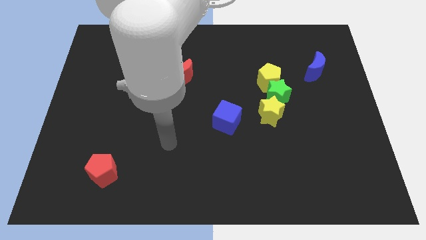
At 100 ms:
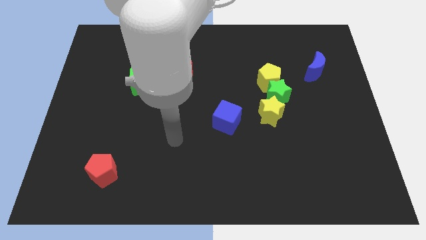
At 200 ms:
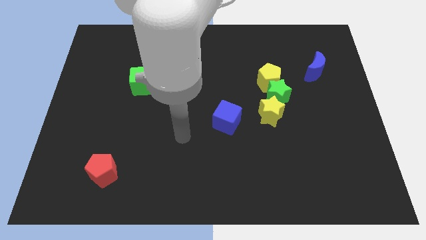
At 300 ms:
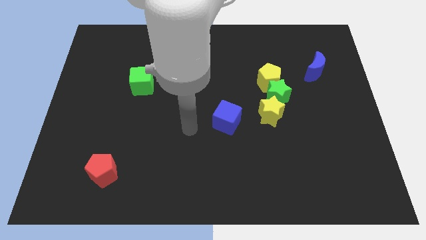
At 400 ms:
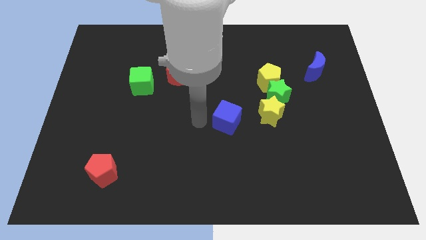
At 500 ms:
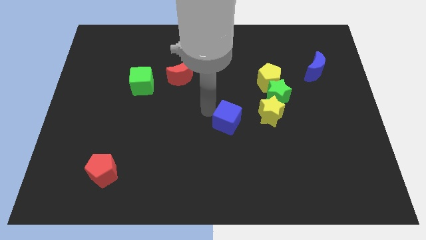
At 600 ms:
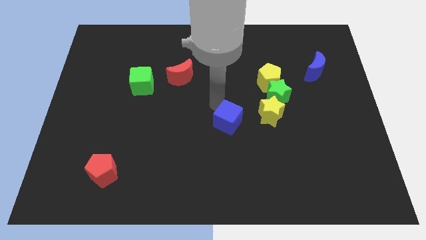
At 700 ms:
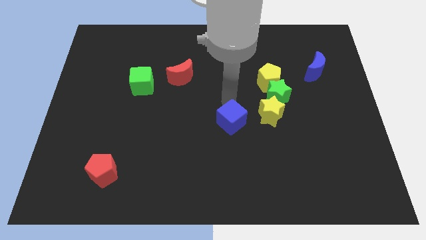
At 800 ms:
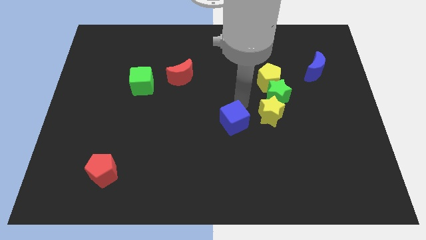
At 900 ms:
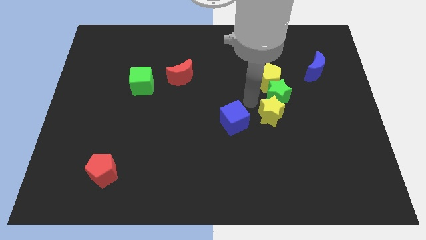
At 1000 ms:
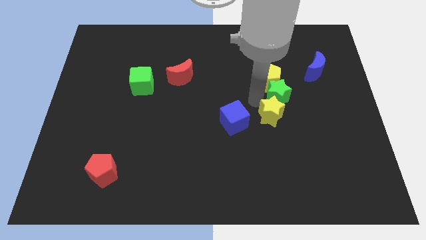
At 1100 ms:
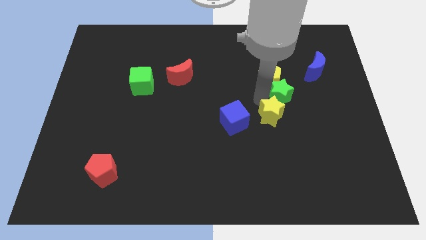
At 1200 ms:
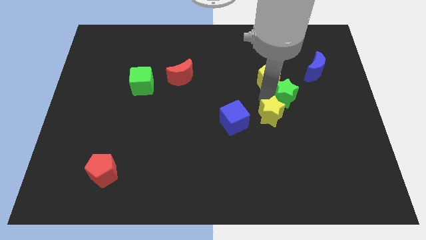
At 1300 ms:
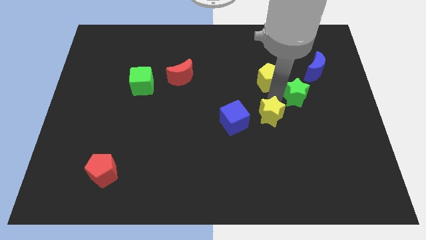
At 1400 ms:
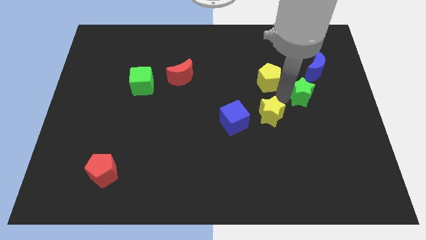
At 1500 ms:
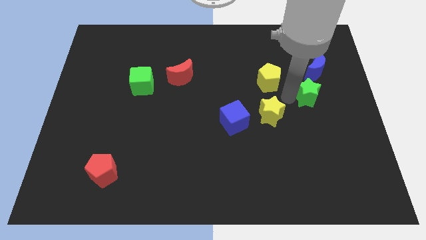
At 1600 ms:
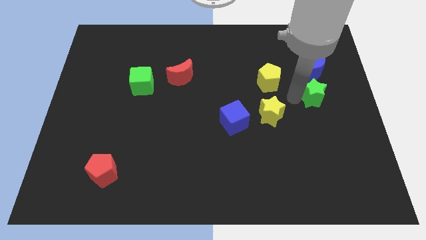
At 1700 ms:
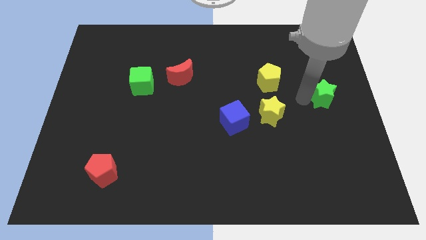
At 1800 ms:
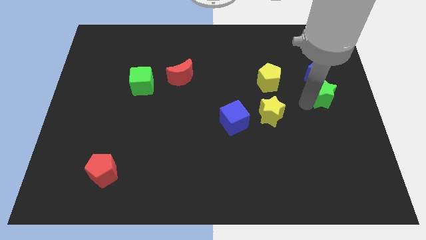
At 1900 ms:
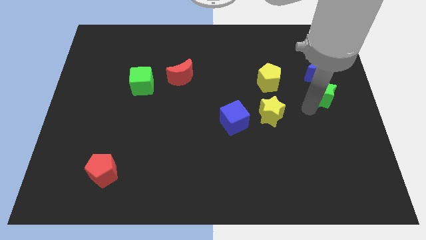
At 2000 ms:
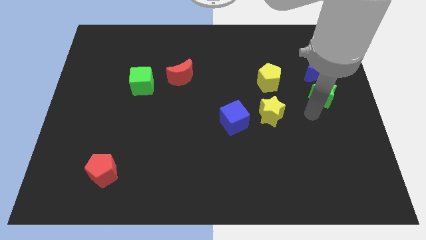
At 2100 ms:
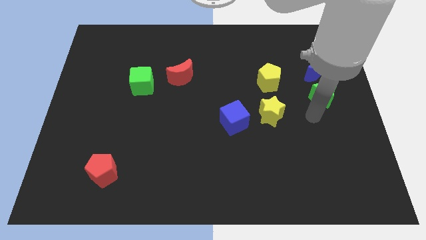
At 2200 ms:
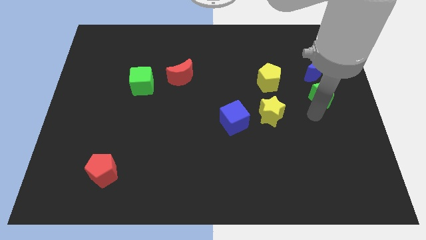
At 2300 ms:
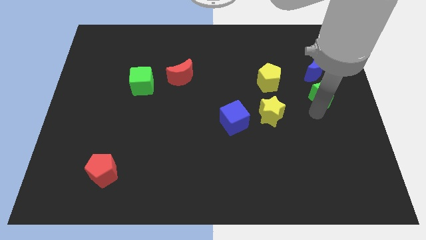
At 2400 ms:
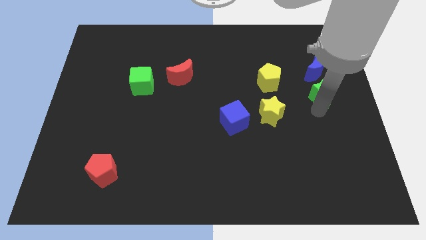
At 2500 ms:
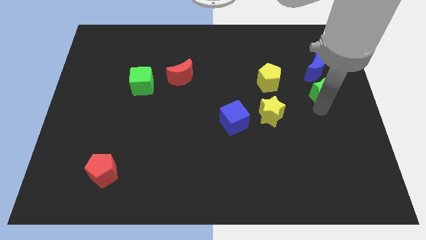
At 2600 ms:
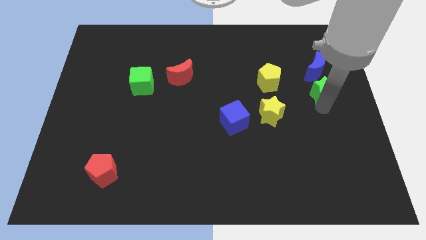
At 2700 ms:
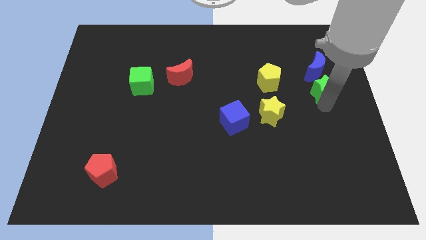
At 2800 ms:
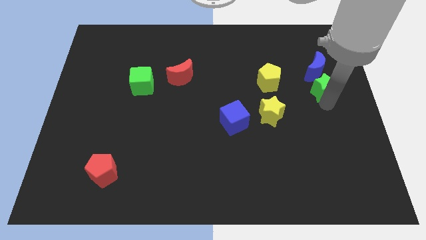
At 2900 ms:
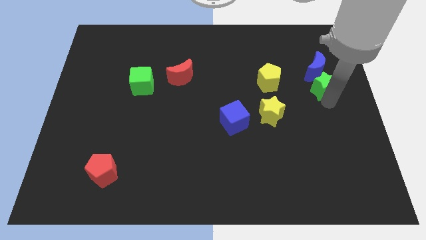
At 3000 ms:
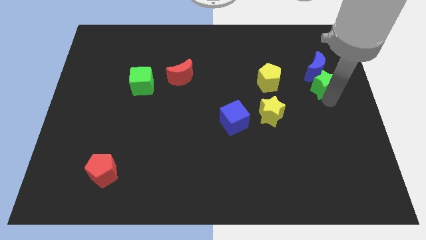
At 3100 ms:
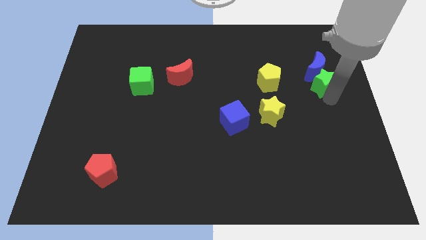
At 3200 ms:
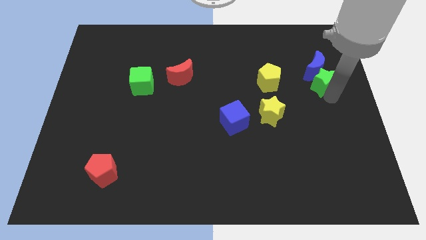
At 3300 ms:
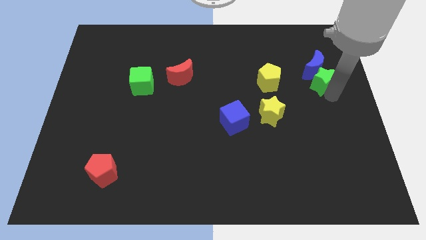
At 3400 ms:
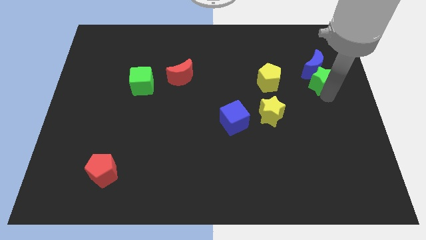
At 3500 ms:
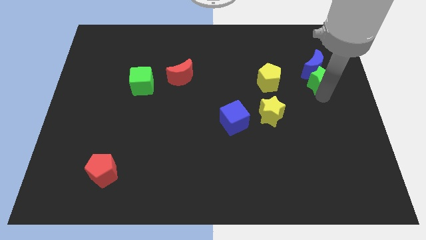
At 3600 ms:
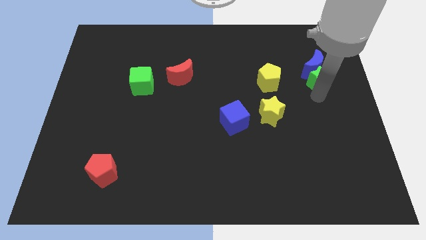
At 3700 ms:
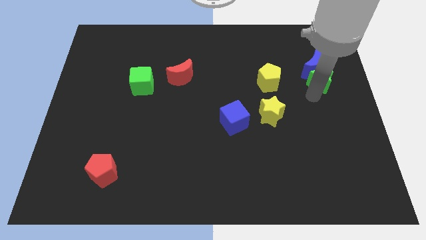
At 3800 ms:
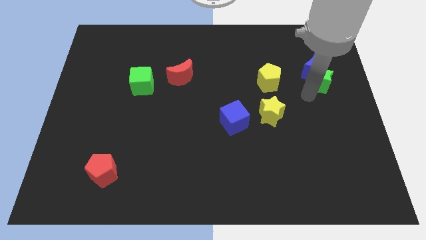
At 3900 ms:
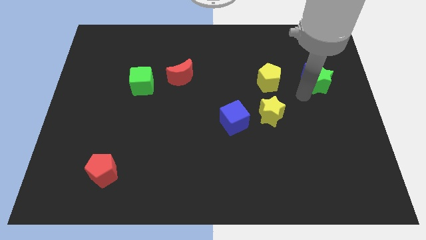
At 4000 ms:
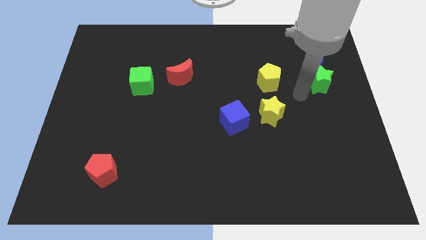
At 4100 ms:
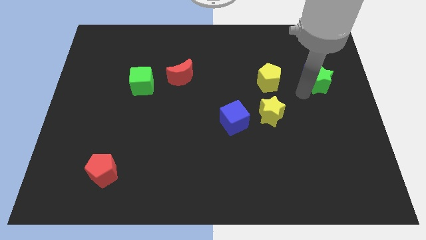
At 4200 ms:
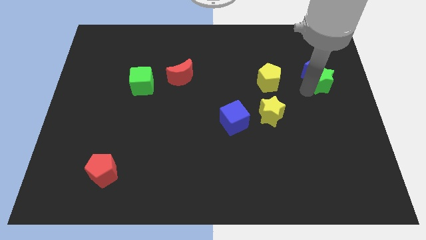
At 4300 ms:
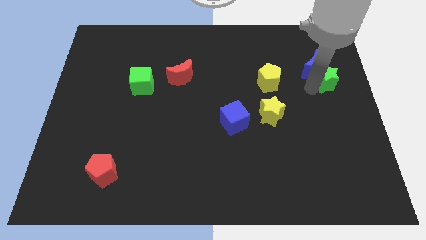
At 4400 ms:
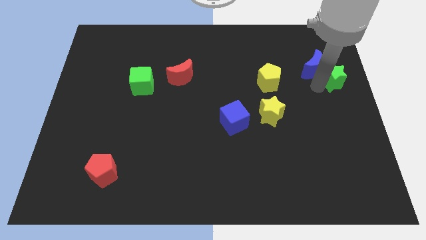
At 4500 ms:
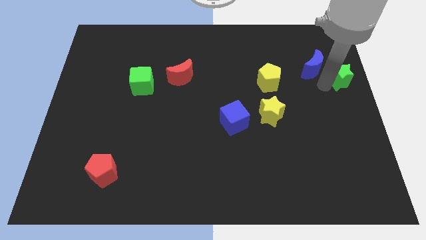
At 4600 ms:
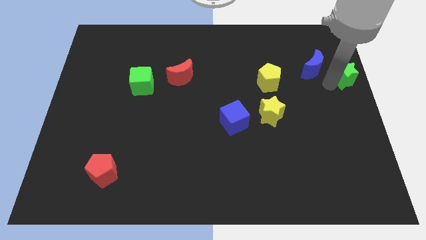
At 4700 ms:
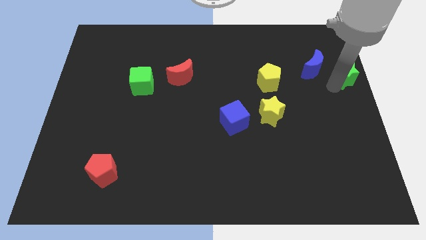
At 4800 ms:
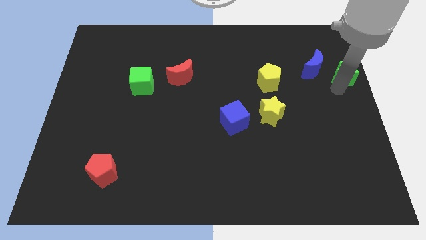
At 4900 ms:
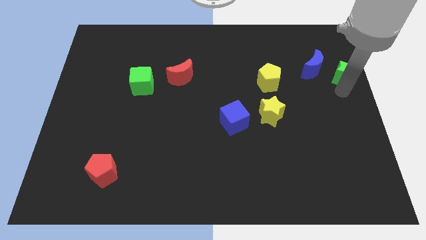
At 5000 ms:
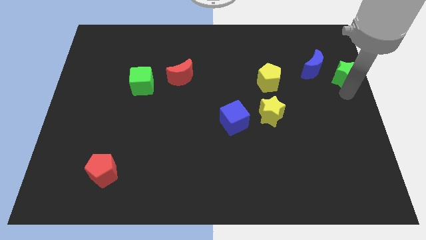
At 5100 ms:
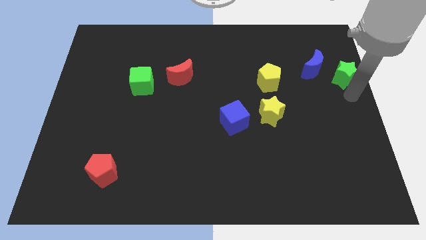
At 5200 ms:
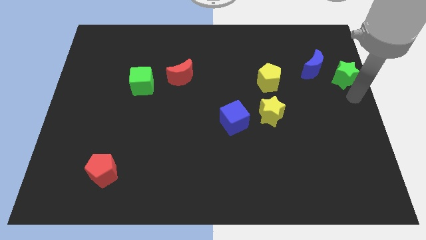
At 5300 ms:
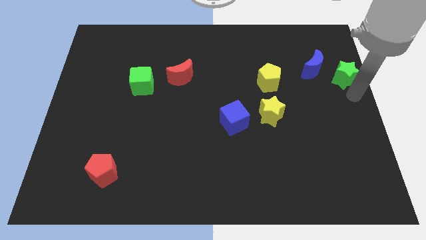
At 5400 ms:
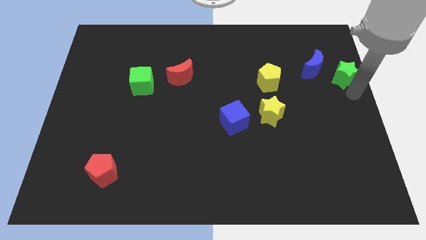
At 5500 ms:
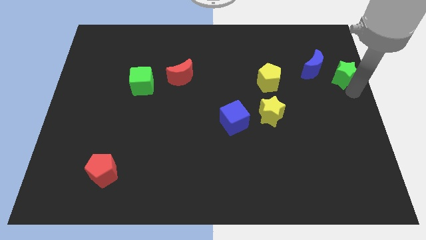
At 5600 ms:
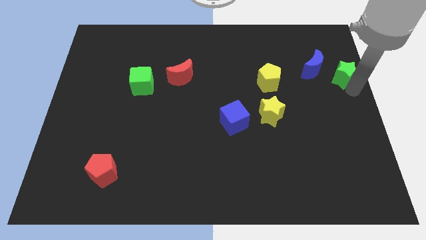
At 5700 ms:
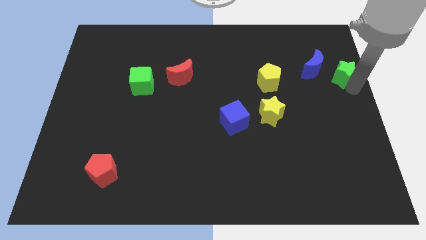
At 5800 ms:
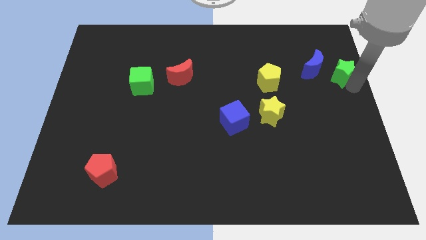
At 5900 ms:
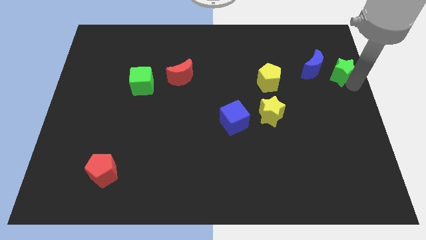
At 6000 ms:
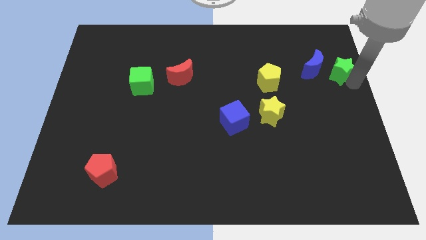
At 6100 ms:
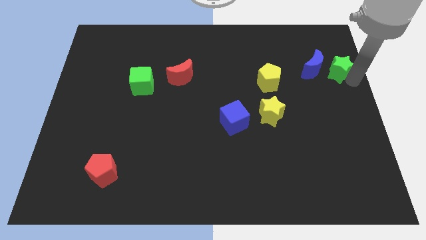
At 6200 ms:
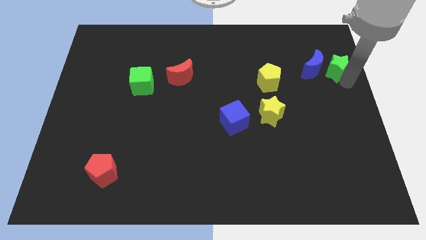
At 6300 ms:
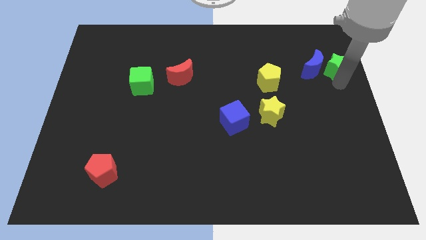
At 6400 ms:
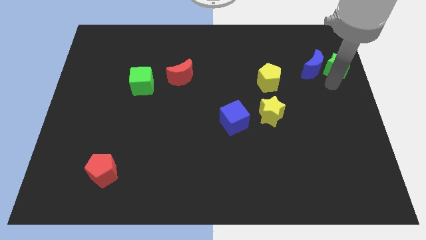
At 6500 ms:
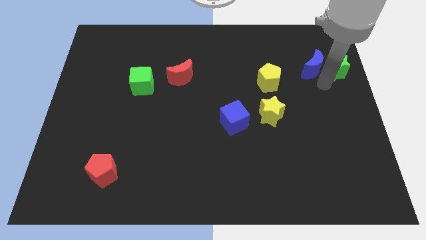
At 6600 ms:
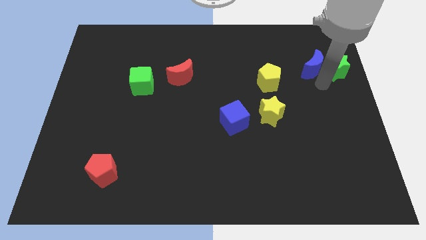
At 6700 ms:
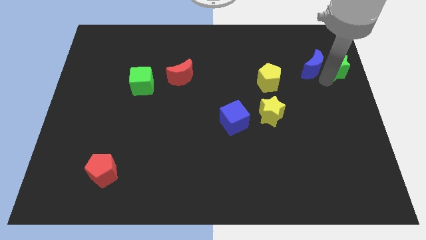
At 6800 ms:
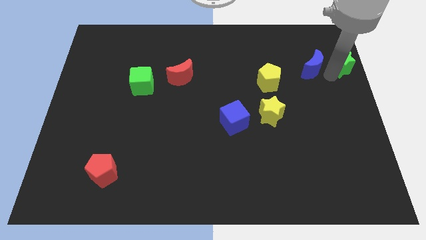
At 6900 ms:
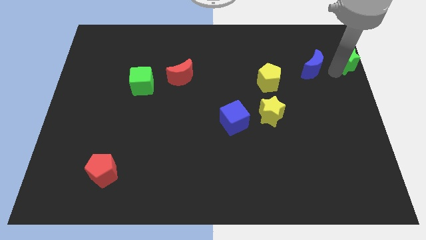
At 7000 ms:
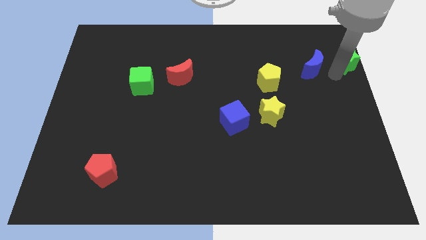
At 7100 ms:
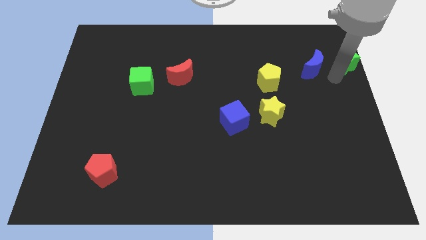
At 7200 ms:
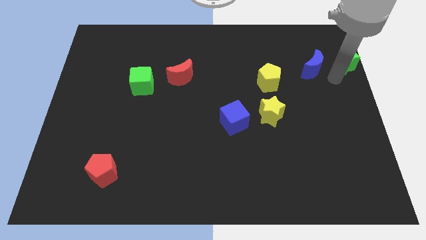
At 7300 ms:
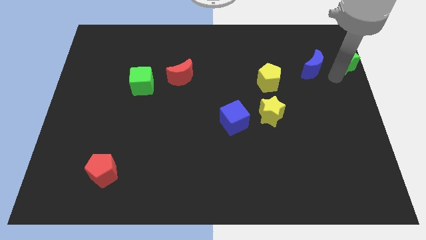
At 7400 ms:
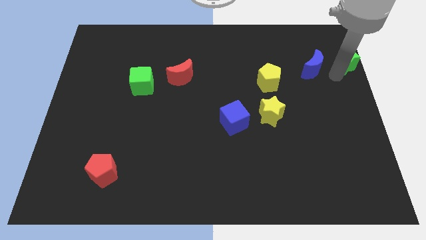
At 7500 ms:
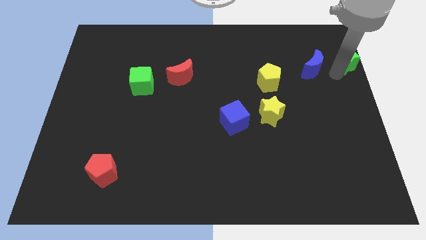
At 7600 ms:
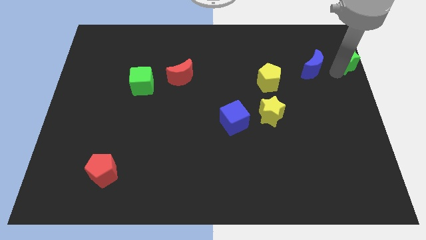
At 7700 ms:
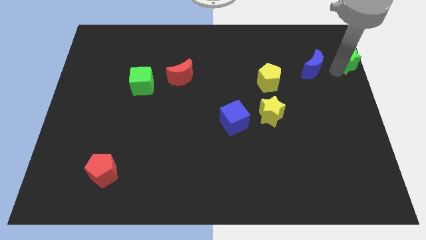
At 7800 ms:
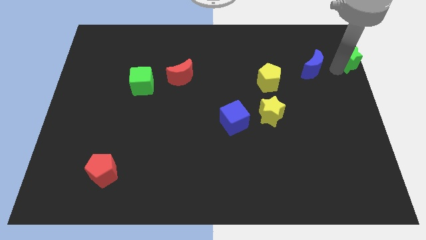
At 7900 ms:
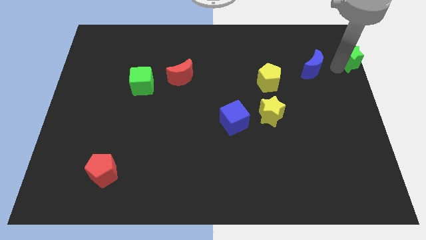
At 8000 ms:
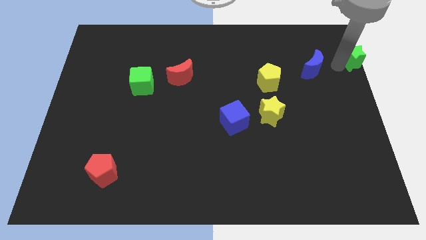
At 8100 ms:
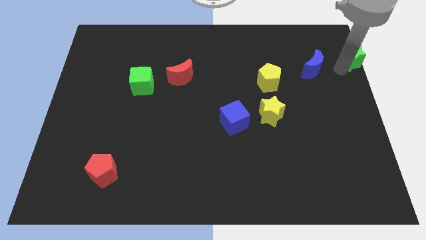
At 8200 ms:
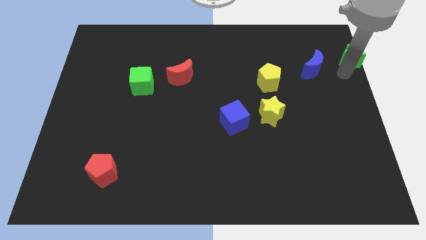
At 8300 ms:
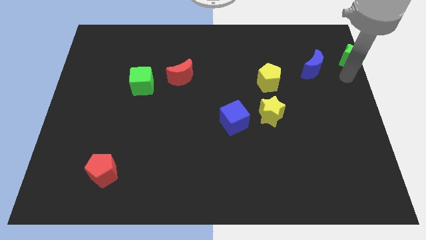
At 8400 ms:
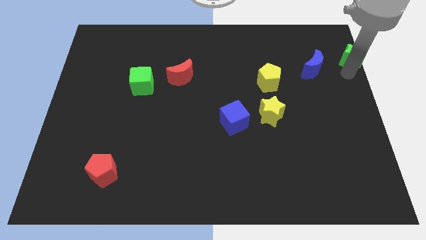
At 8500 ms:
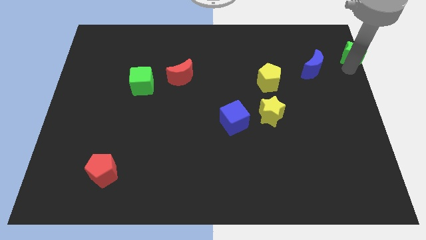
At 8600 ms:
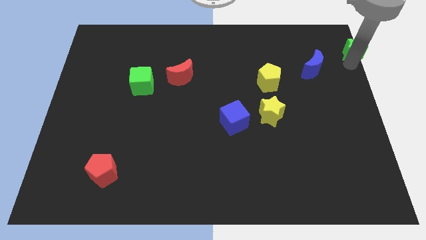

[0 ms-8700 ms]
push the green star to the top right corner
